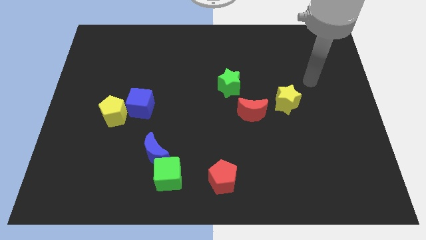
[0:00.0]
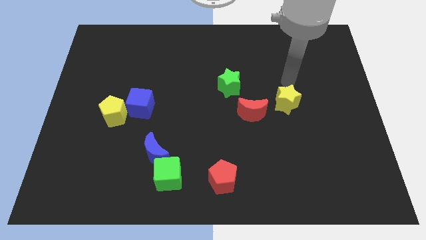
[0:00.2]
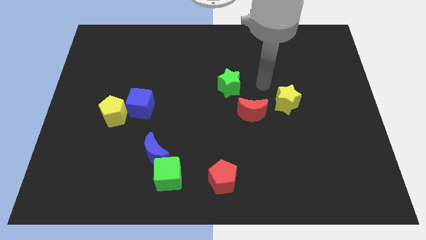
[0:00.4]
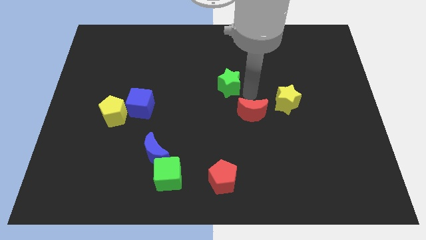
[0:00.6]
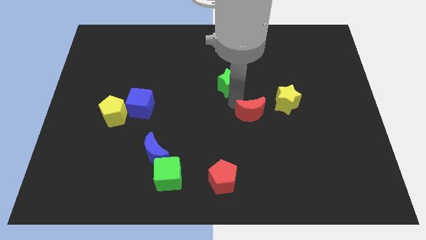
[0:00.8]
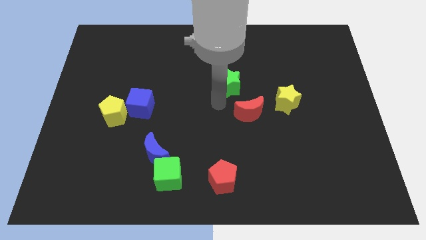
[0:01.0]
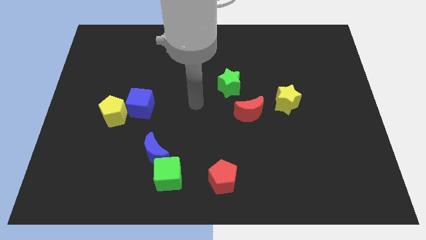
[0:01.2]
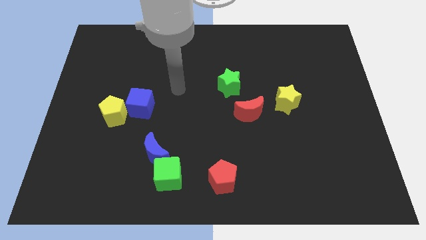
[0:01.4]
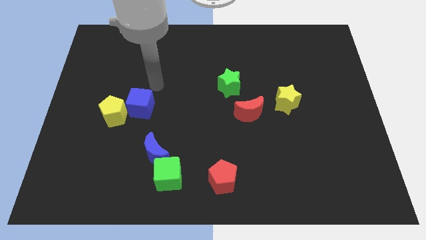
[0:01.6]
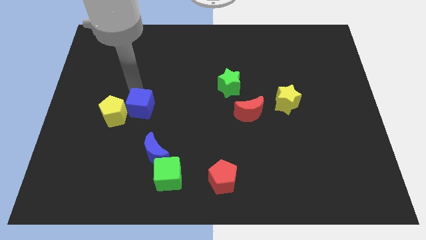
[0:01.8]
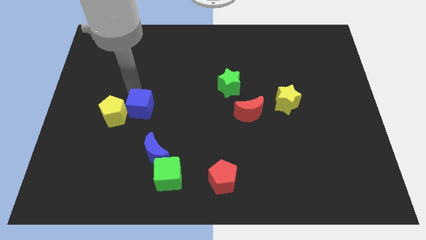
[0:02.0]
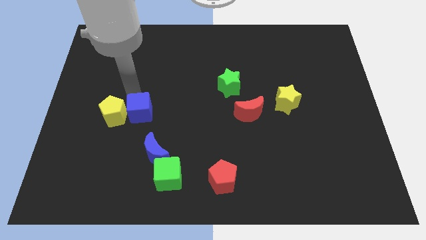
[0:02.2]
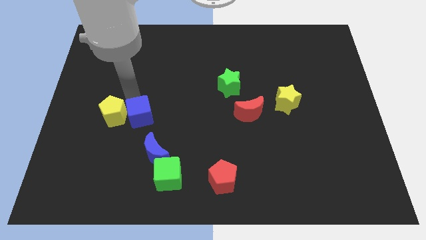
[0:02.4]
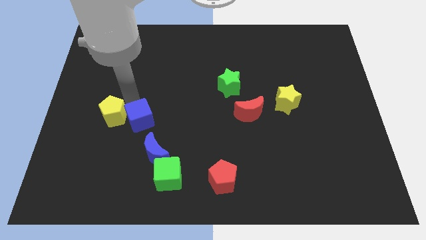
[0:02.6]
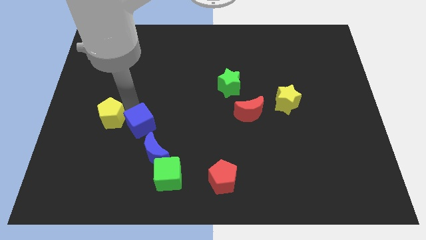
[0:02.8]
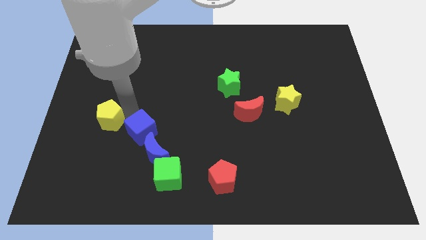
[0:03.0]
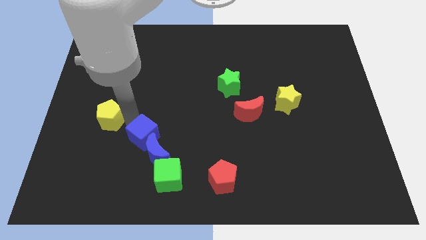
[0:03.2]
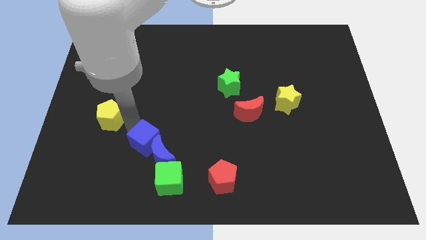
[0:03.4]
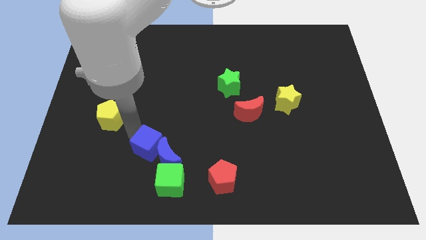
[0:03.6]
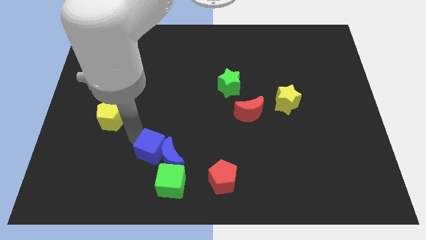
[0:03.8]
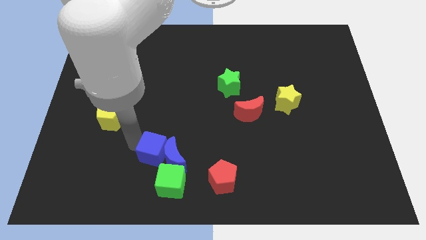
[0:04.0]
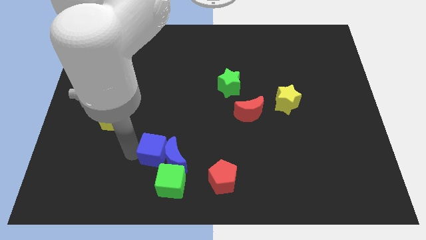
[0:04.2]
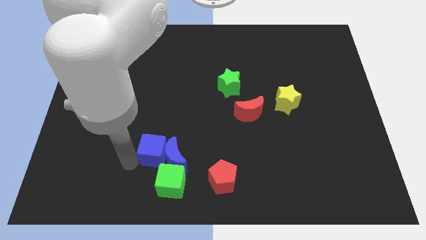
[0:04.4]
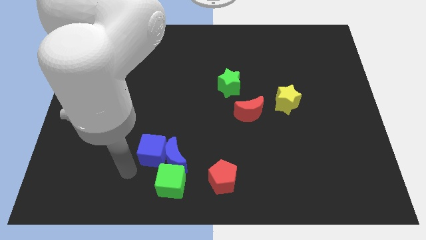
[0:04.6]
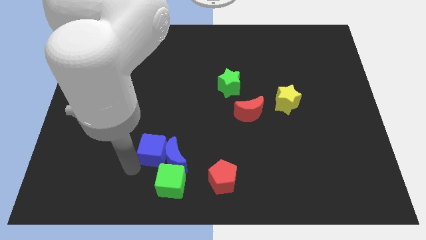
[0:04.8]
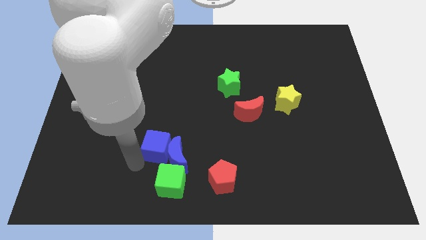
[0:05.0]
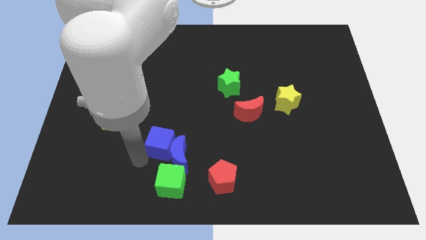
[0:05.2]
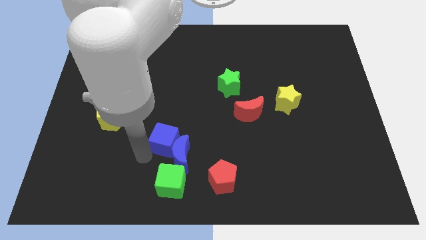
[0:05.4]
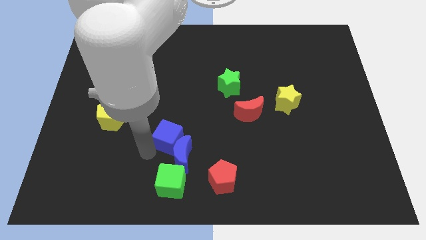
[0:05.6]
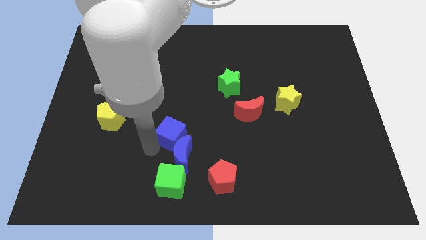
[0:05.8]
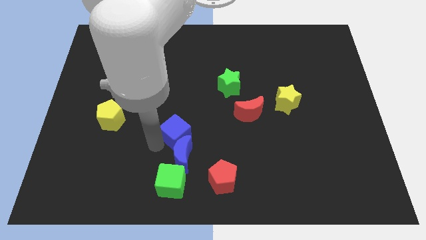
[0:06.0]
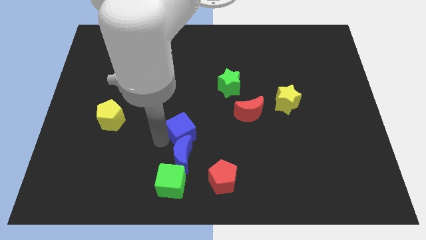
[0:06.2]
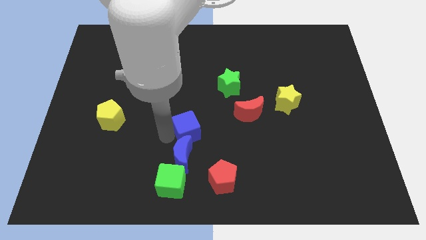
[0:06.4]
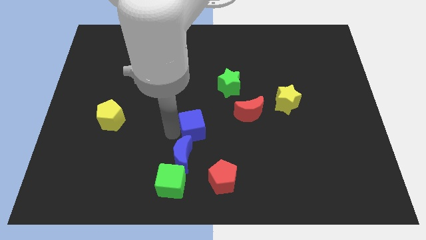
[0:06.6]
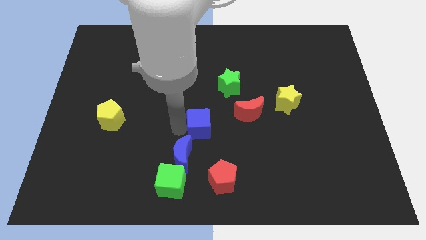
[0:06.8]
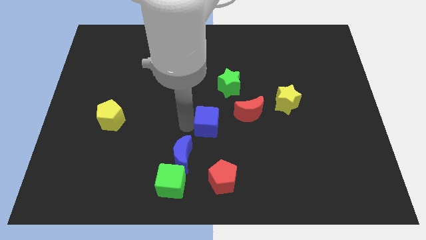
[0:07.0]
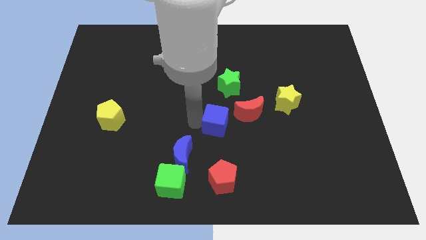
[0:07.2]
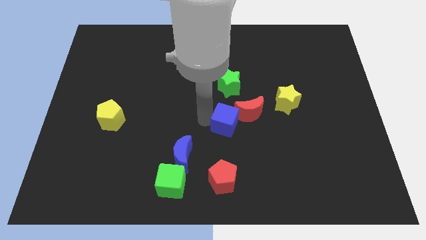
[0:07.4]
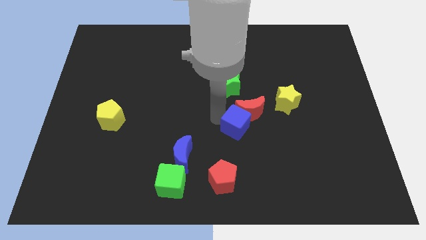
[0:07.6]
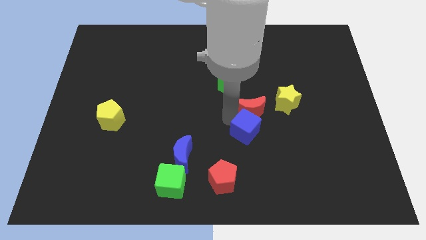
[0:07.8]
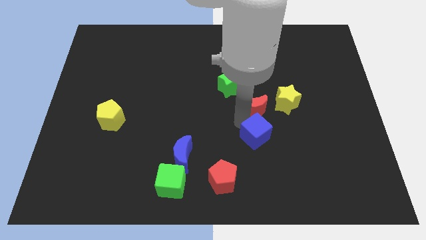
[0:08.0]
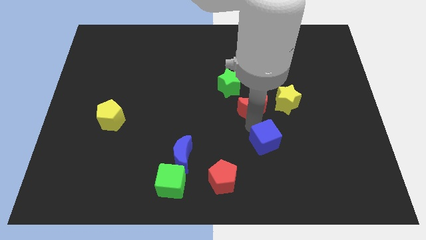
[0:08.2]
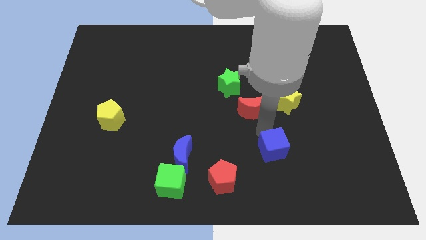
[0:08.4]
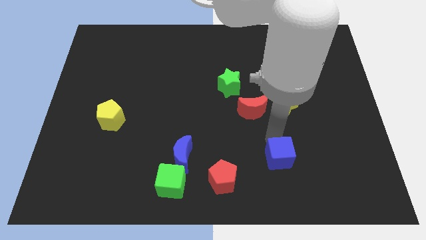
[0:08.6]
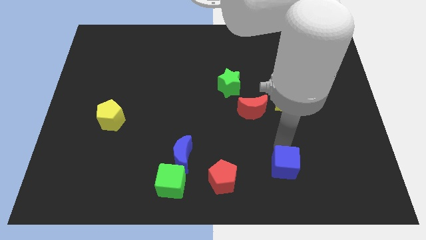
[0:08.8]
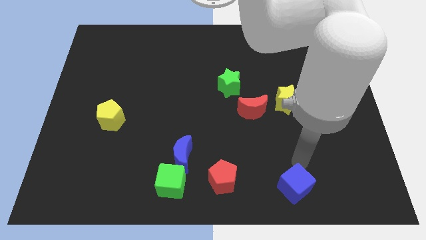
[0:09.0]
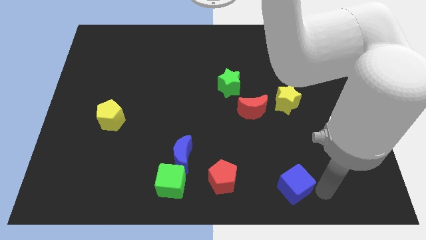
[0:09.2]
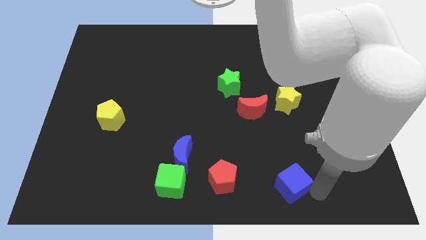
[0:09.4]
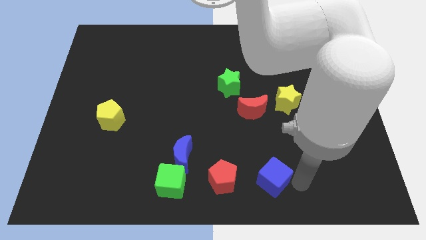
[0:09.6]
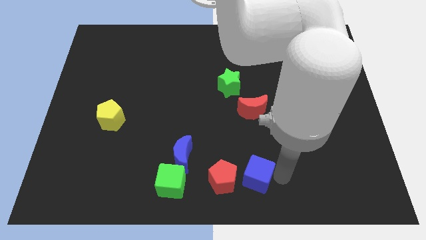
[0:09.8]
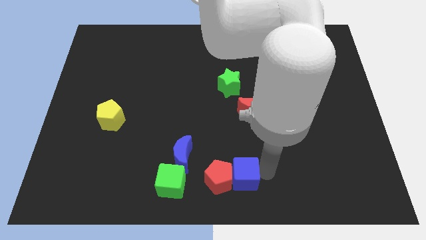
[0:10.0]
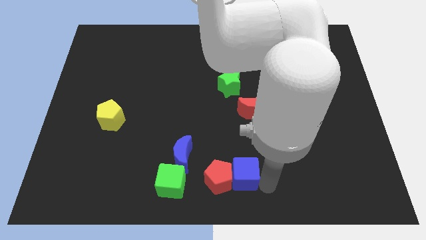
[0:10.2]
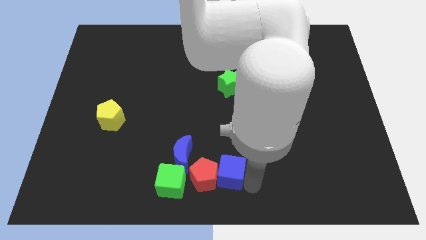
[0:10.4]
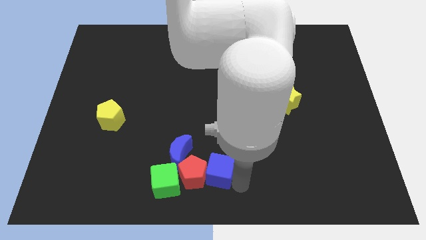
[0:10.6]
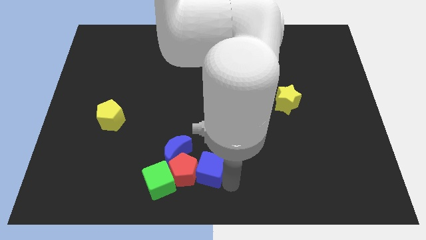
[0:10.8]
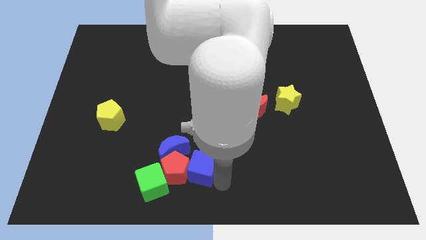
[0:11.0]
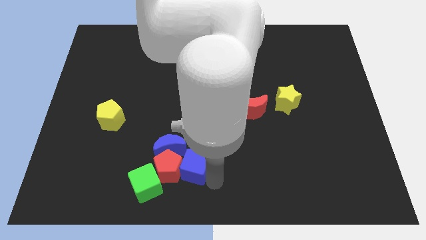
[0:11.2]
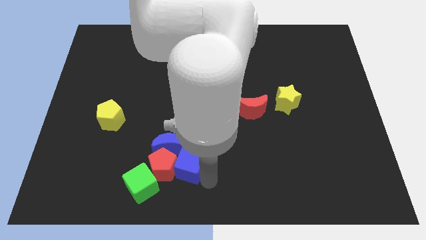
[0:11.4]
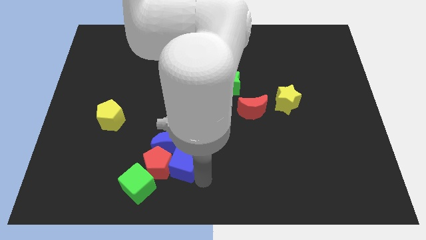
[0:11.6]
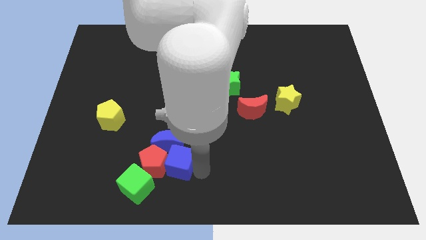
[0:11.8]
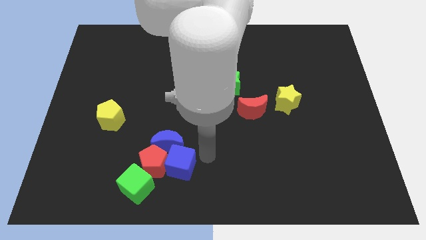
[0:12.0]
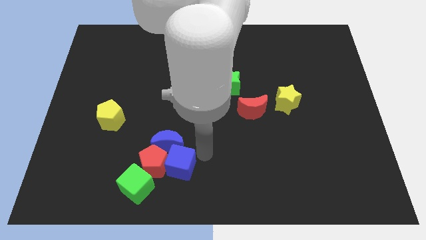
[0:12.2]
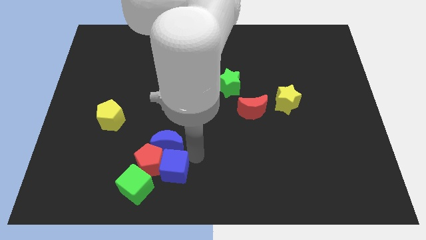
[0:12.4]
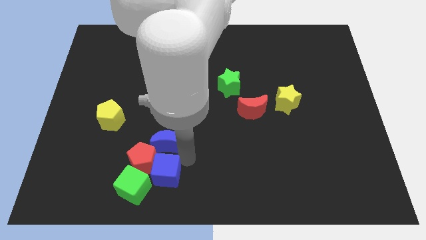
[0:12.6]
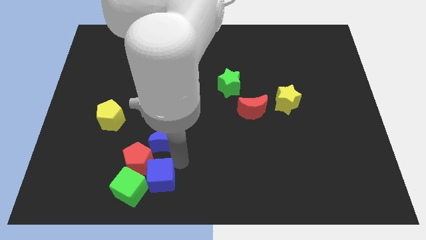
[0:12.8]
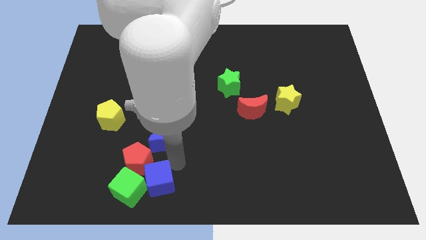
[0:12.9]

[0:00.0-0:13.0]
push the blue cube close to the green cube
